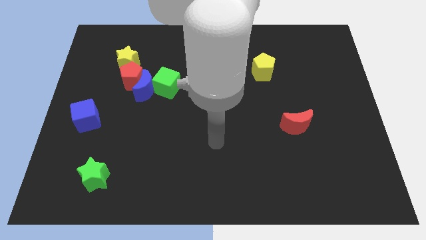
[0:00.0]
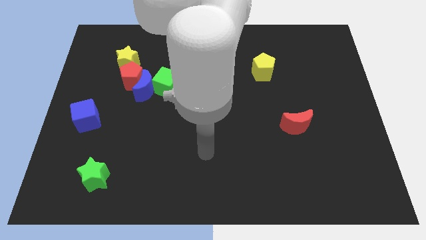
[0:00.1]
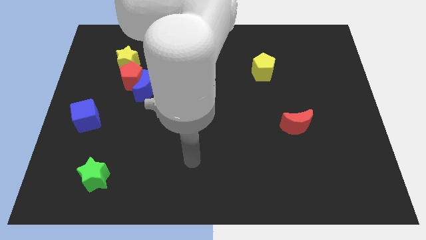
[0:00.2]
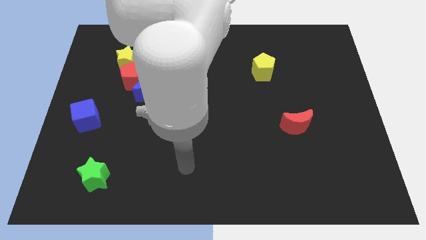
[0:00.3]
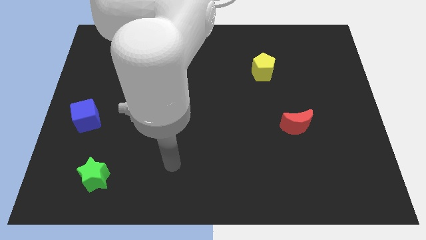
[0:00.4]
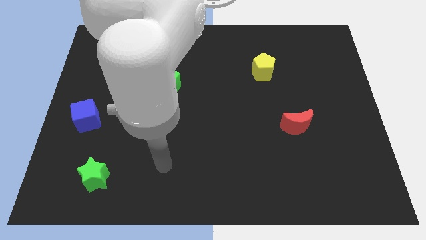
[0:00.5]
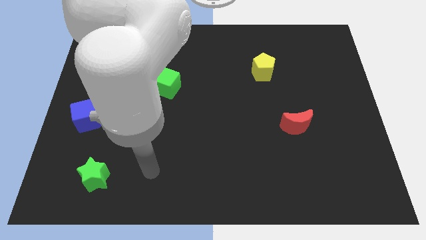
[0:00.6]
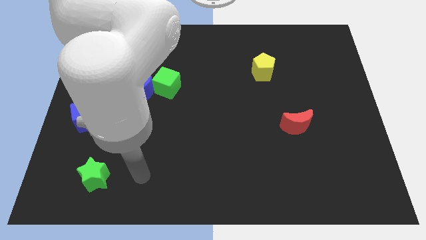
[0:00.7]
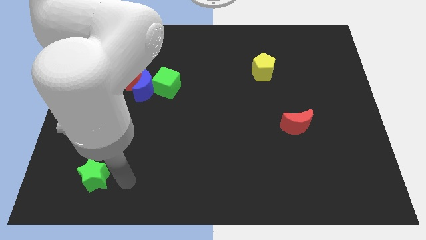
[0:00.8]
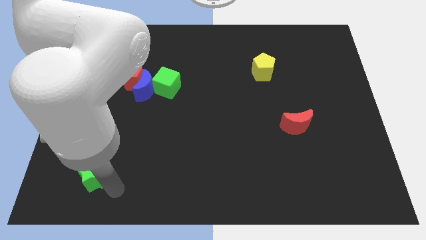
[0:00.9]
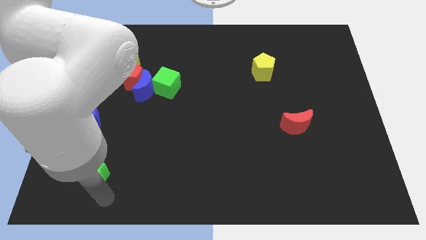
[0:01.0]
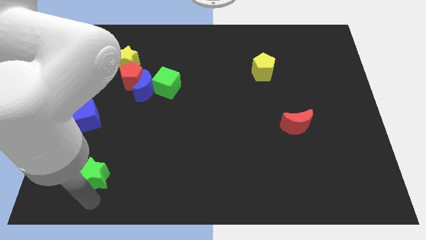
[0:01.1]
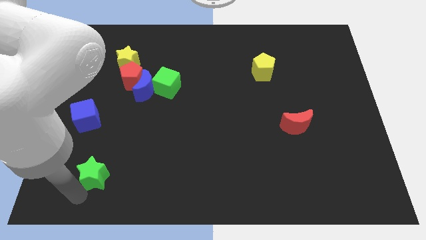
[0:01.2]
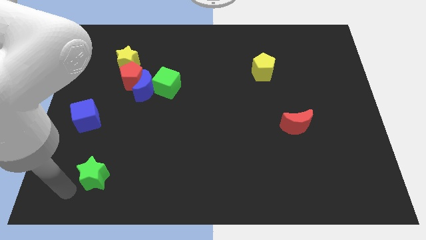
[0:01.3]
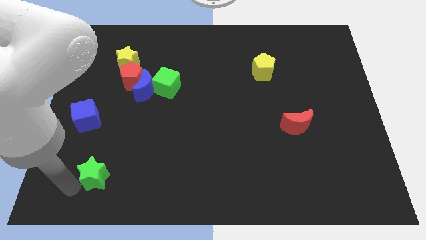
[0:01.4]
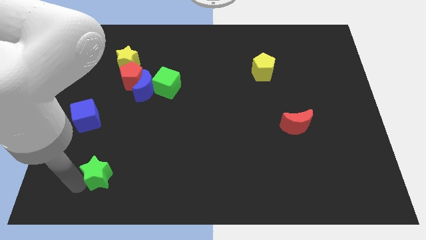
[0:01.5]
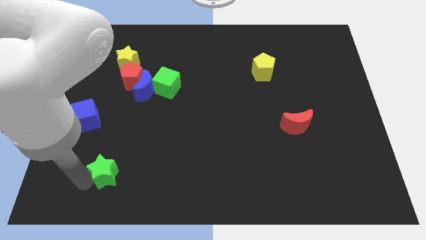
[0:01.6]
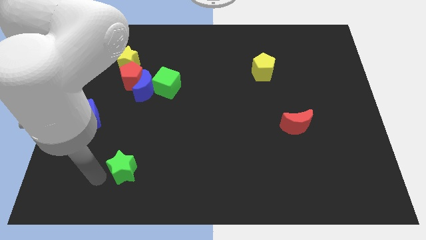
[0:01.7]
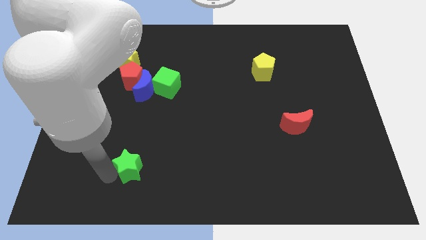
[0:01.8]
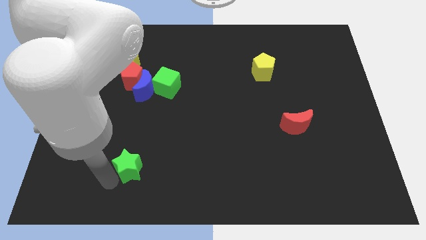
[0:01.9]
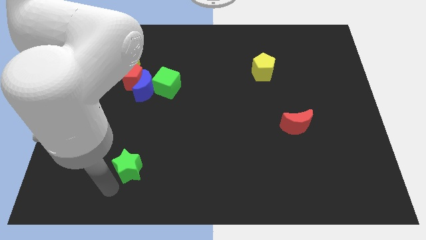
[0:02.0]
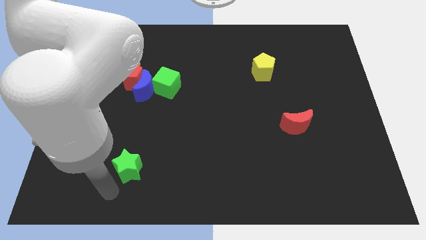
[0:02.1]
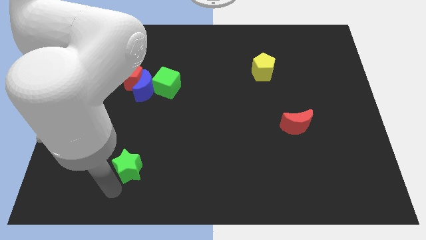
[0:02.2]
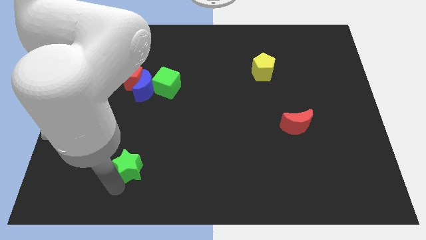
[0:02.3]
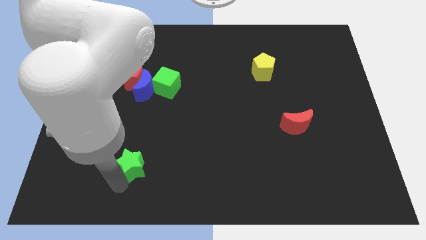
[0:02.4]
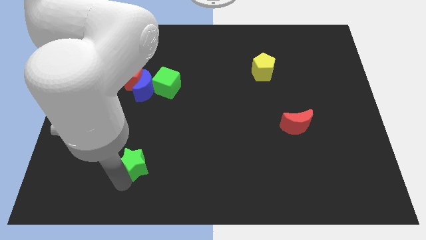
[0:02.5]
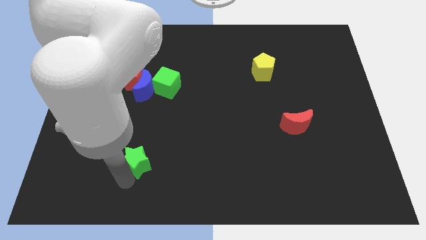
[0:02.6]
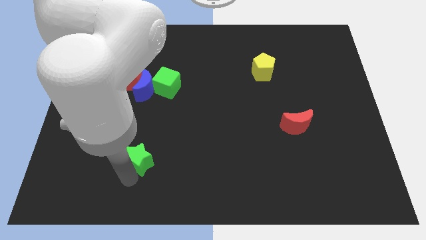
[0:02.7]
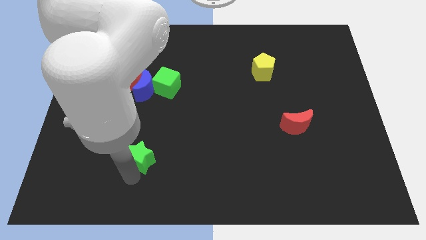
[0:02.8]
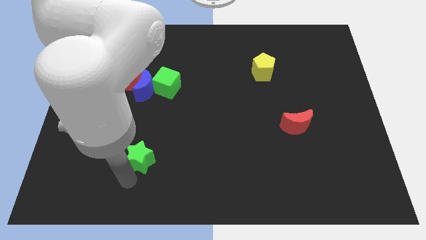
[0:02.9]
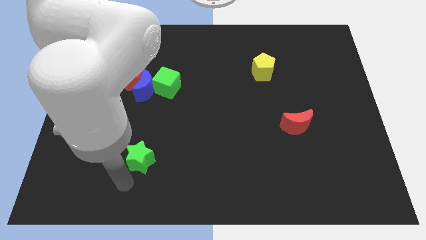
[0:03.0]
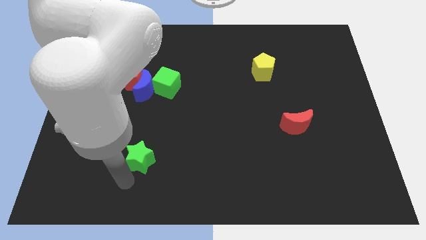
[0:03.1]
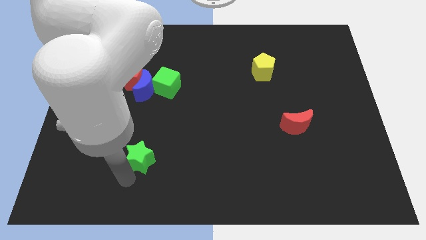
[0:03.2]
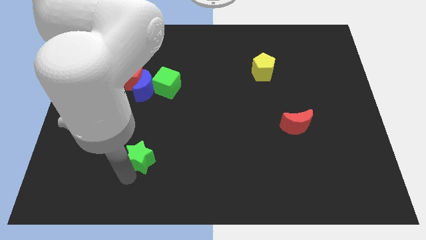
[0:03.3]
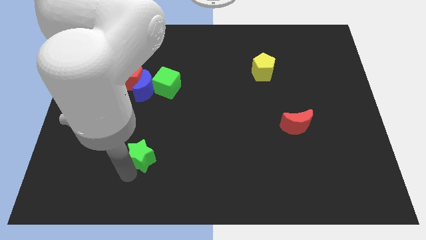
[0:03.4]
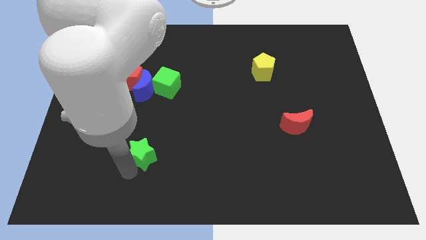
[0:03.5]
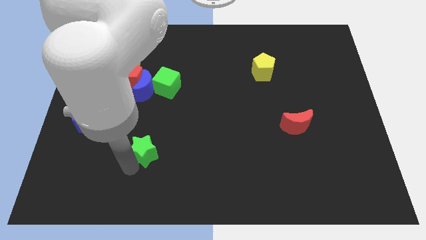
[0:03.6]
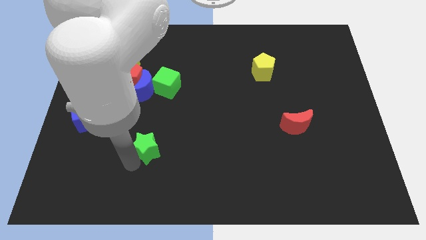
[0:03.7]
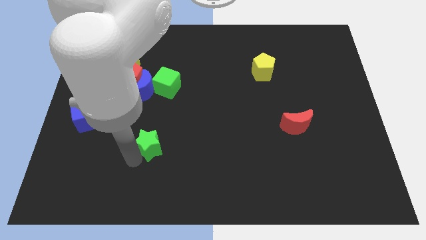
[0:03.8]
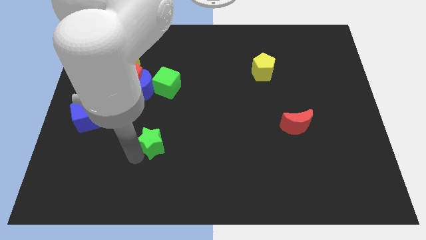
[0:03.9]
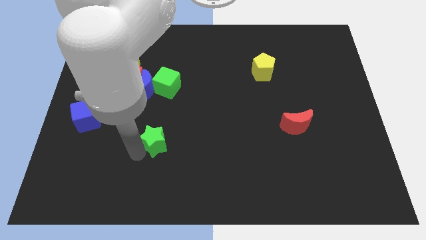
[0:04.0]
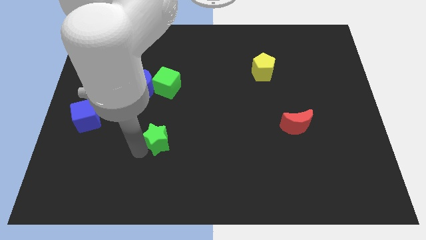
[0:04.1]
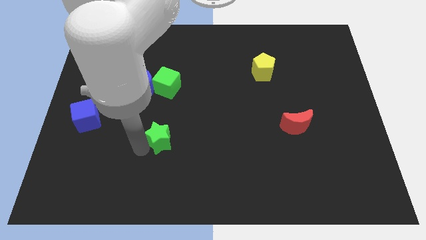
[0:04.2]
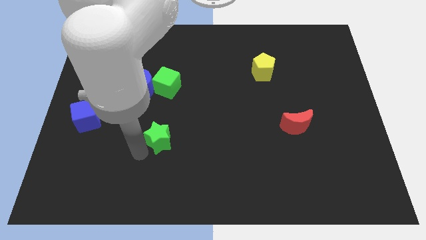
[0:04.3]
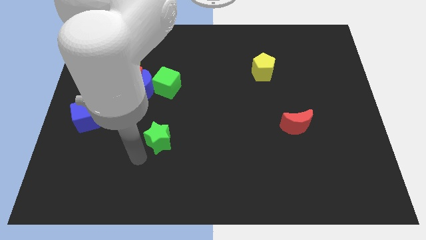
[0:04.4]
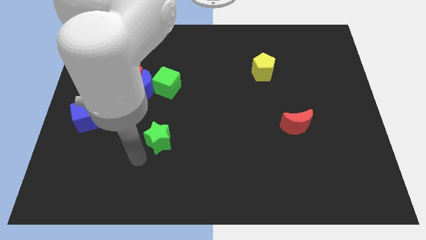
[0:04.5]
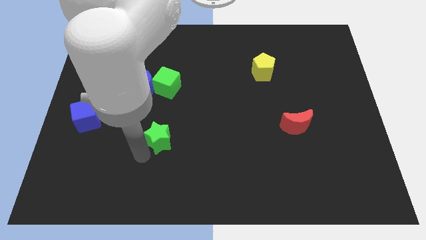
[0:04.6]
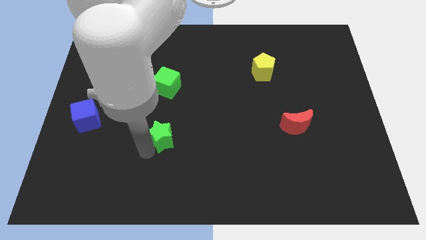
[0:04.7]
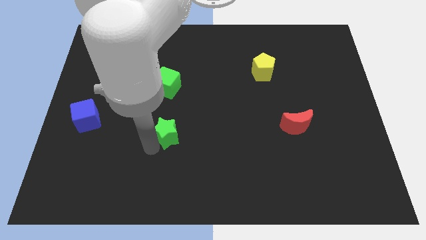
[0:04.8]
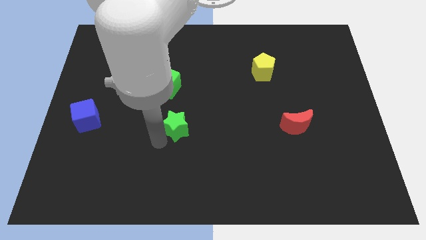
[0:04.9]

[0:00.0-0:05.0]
slide the green star to the middle of the board

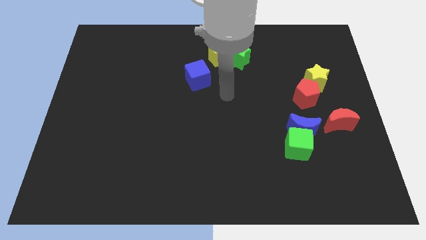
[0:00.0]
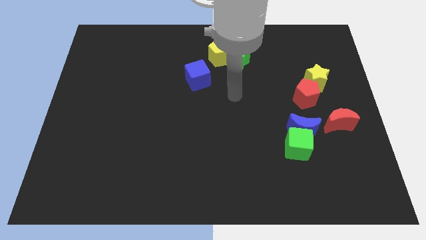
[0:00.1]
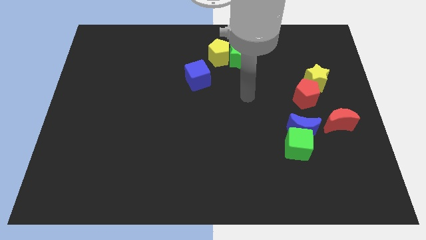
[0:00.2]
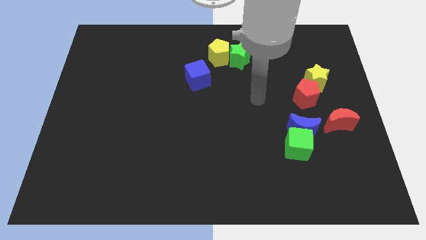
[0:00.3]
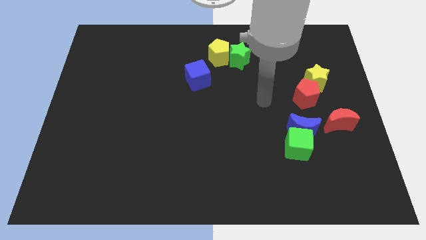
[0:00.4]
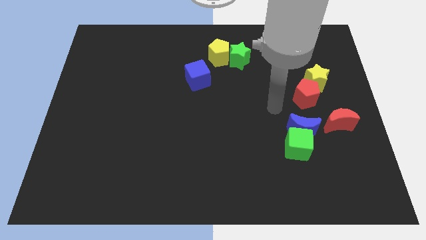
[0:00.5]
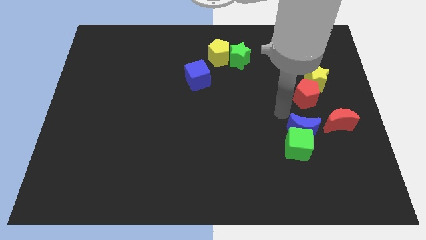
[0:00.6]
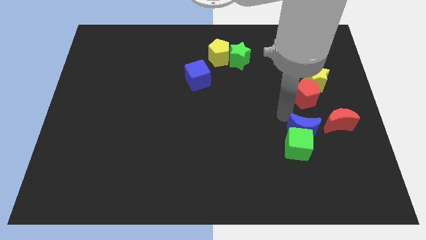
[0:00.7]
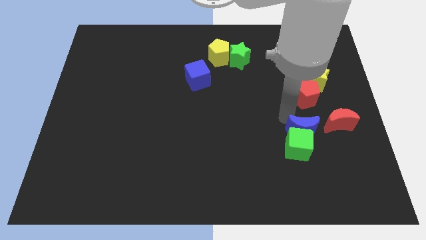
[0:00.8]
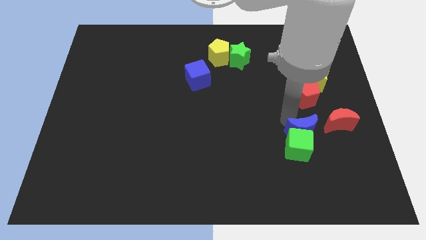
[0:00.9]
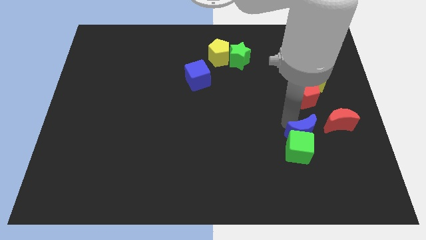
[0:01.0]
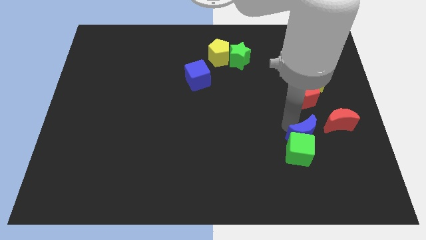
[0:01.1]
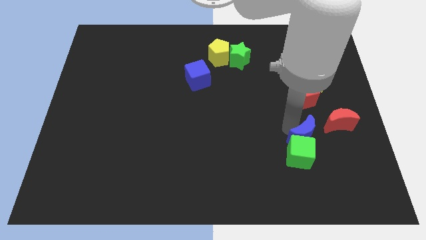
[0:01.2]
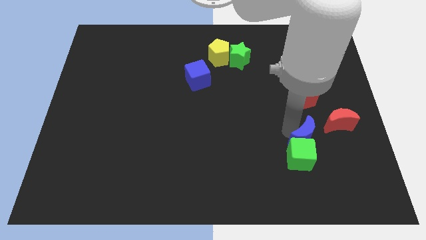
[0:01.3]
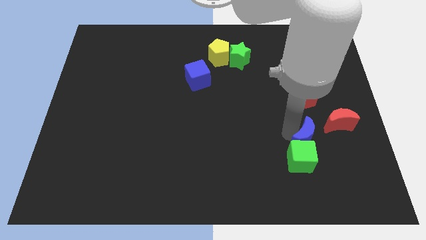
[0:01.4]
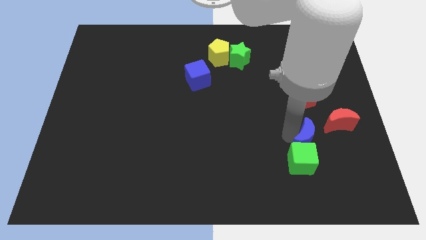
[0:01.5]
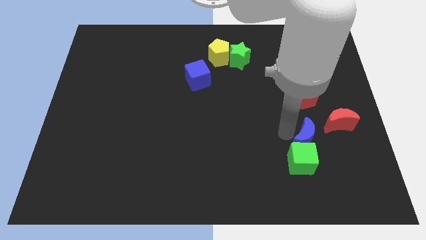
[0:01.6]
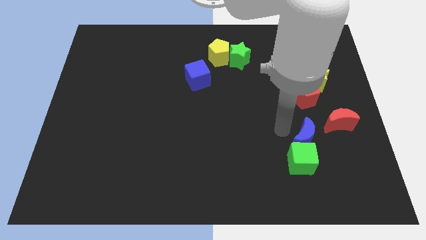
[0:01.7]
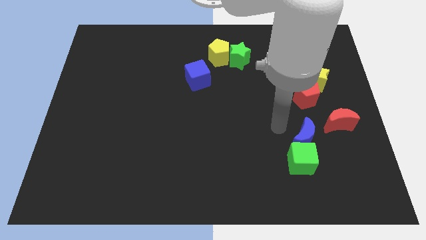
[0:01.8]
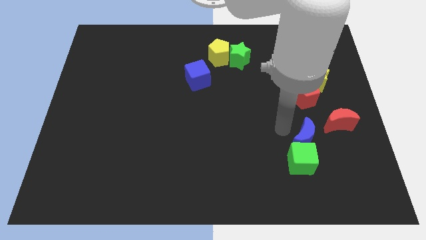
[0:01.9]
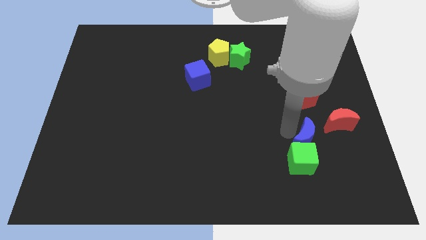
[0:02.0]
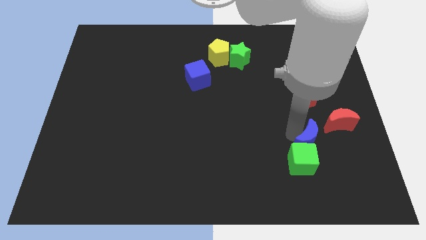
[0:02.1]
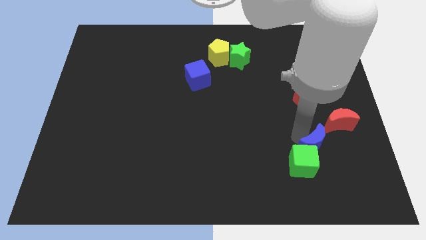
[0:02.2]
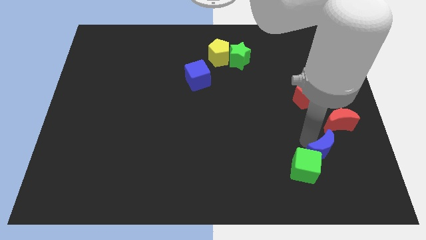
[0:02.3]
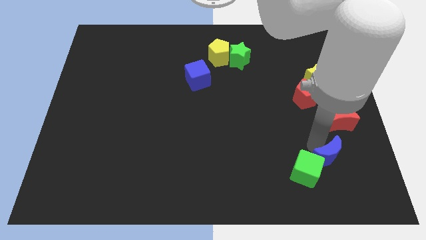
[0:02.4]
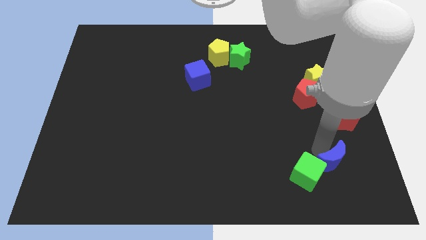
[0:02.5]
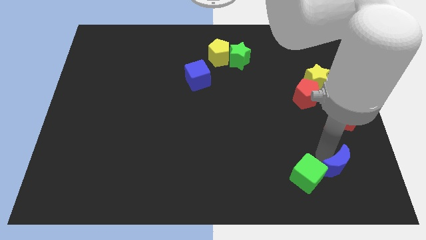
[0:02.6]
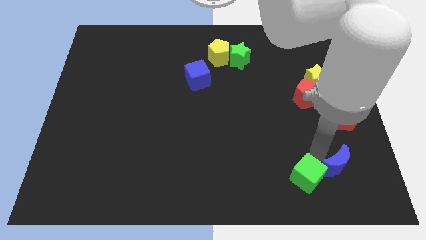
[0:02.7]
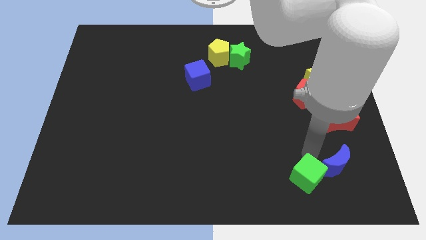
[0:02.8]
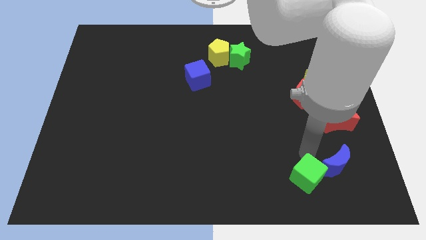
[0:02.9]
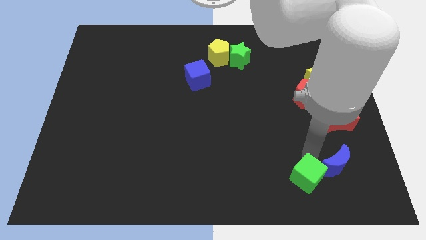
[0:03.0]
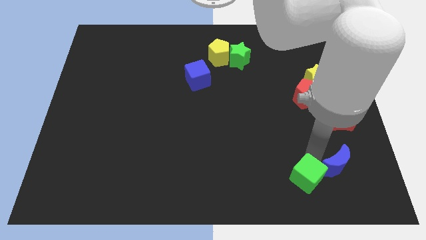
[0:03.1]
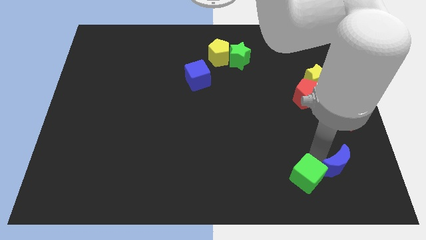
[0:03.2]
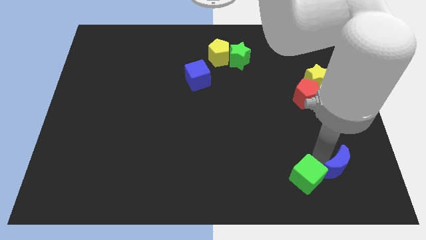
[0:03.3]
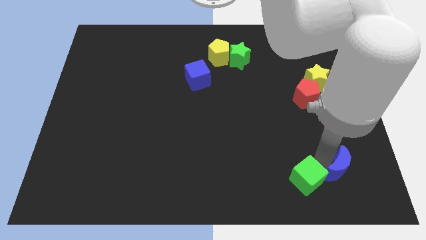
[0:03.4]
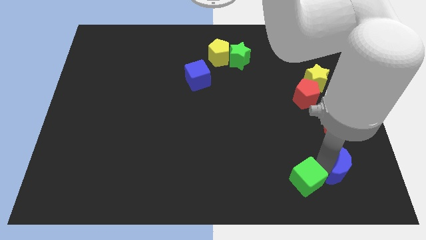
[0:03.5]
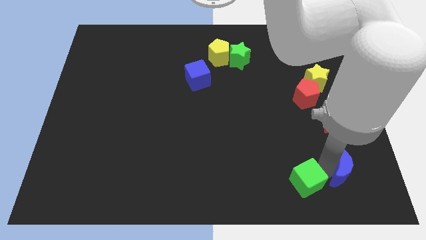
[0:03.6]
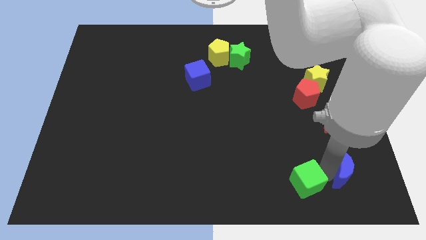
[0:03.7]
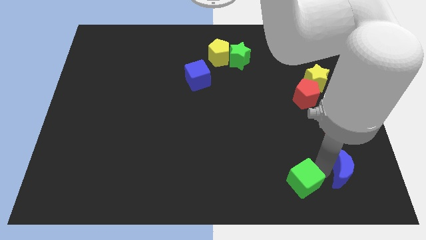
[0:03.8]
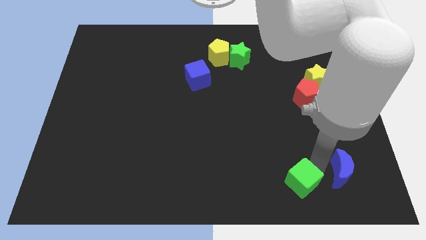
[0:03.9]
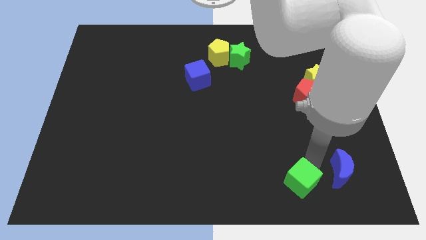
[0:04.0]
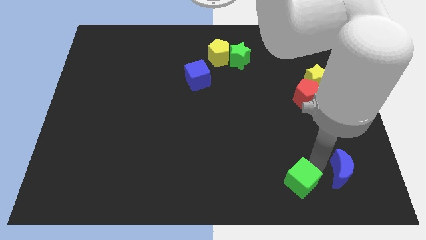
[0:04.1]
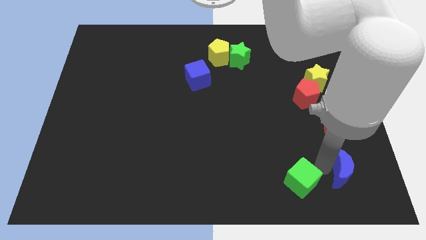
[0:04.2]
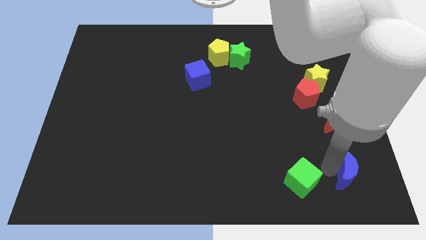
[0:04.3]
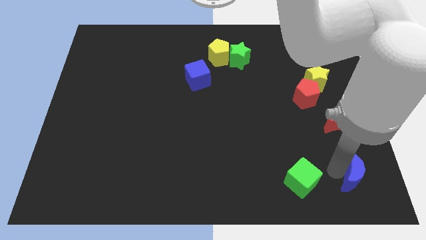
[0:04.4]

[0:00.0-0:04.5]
push the blue moon to the bottom right of the board
